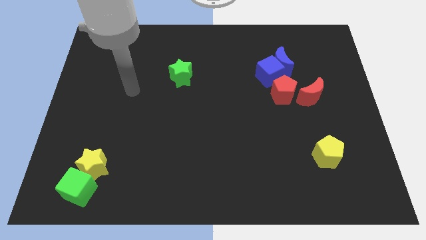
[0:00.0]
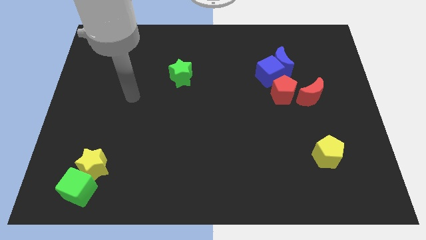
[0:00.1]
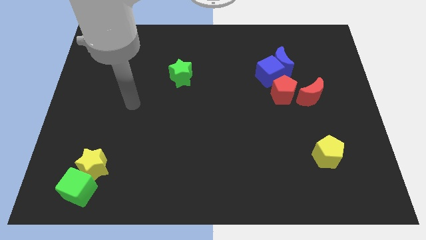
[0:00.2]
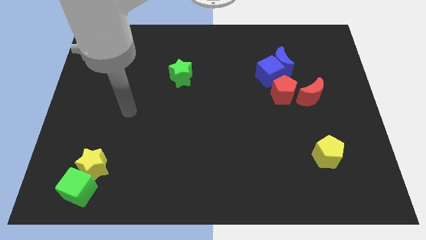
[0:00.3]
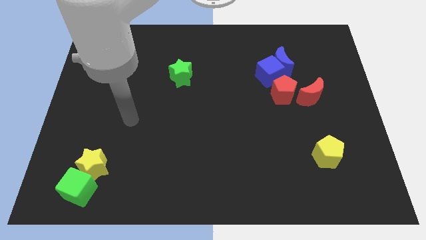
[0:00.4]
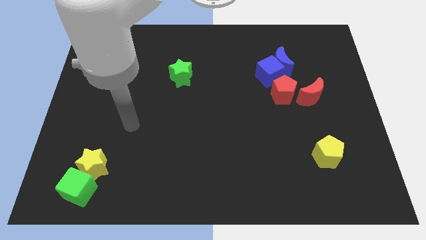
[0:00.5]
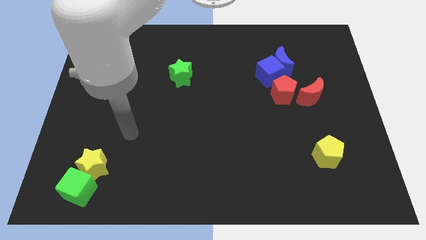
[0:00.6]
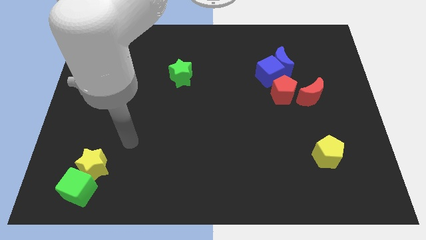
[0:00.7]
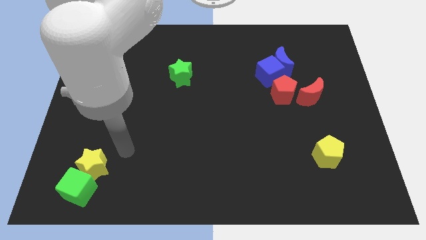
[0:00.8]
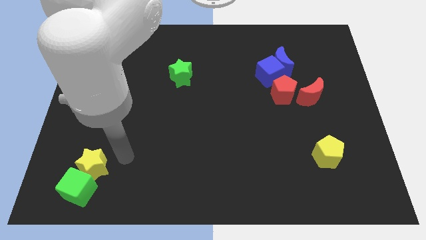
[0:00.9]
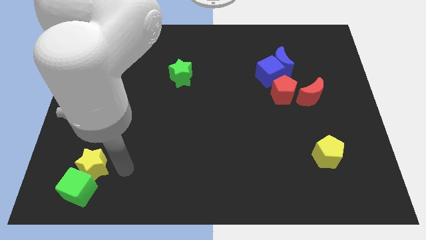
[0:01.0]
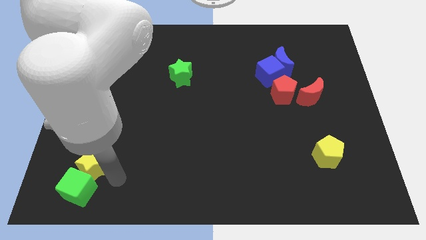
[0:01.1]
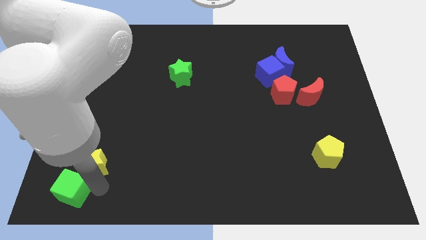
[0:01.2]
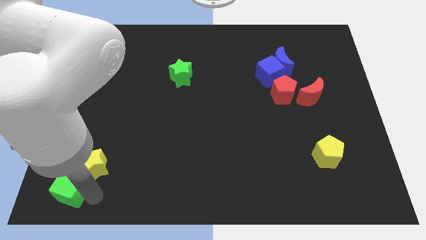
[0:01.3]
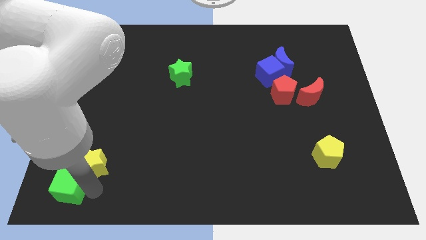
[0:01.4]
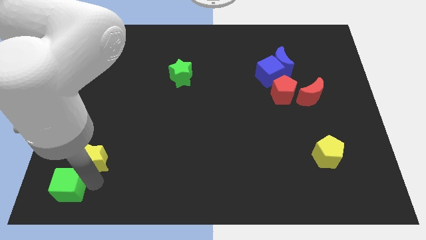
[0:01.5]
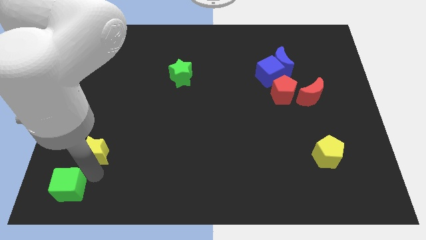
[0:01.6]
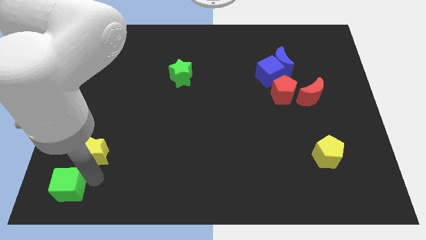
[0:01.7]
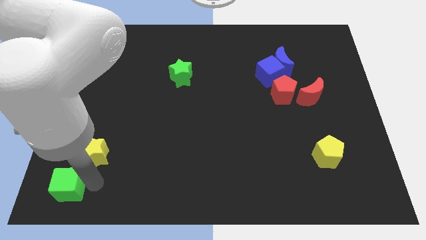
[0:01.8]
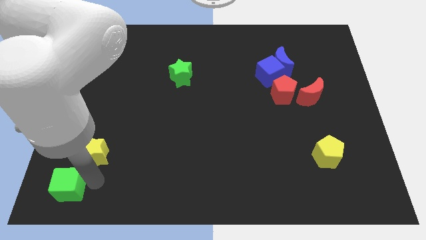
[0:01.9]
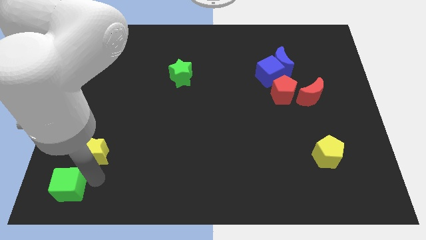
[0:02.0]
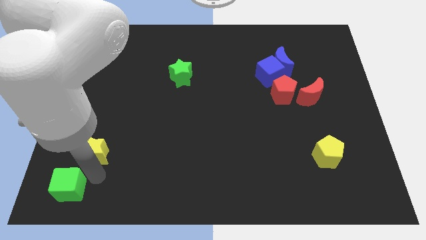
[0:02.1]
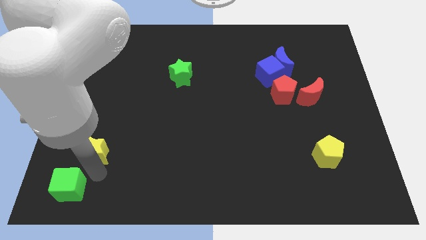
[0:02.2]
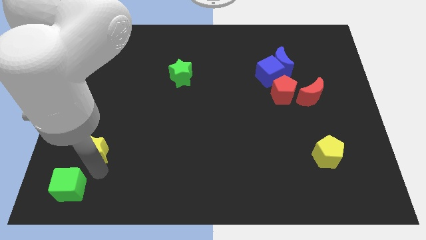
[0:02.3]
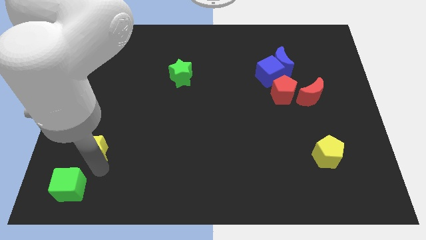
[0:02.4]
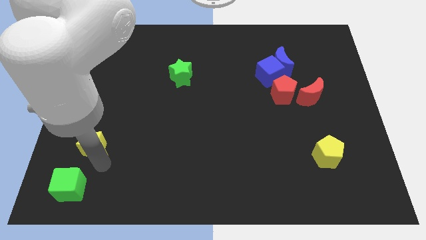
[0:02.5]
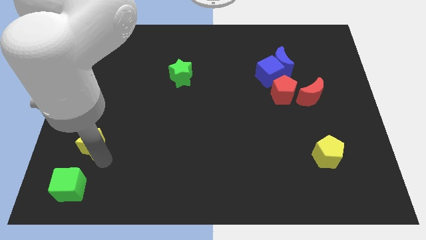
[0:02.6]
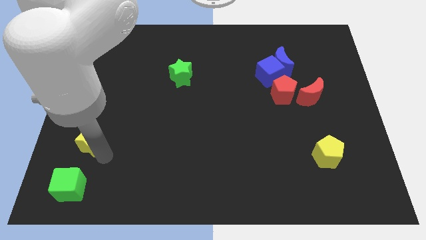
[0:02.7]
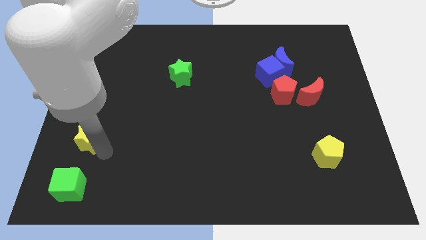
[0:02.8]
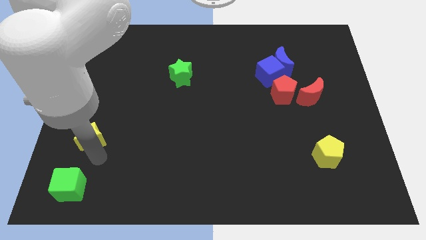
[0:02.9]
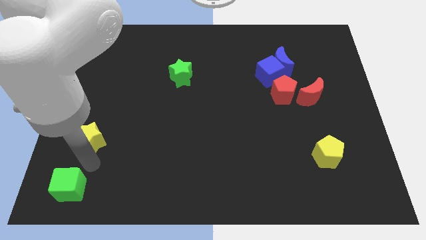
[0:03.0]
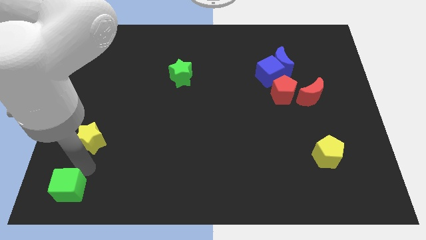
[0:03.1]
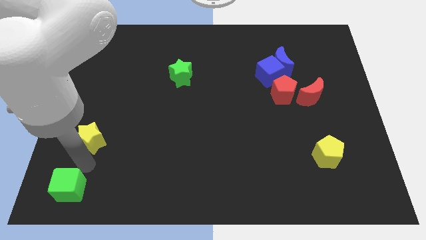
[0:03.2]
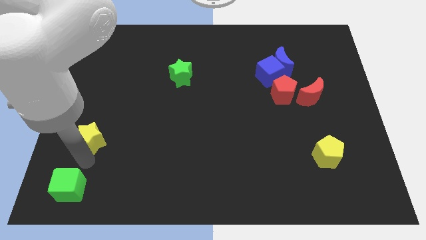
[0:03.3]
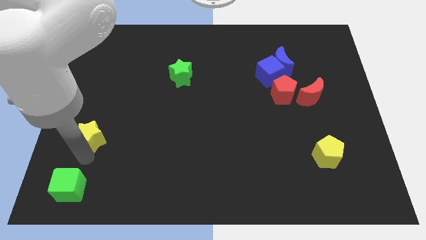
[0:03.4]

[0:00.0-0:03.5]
slightly slide the yellow star upwards

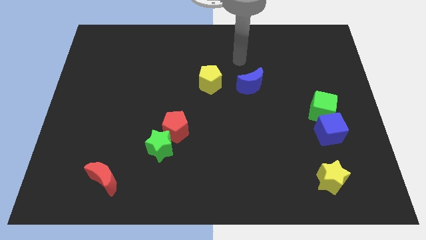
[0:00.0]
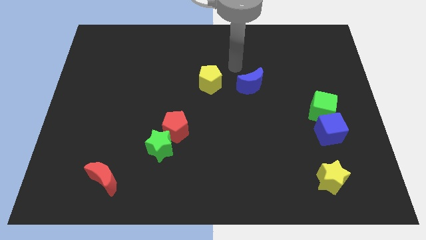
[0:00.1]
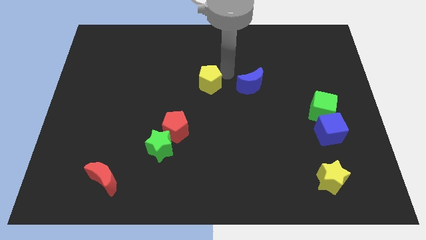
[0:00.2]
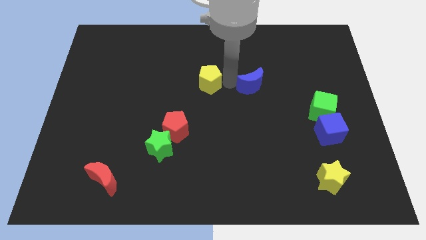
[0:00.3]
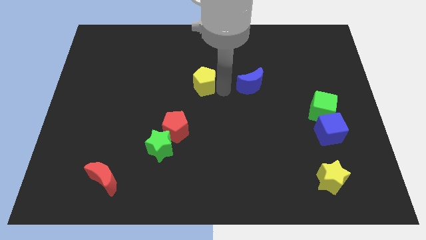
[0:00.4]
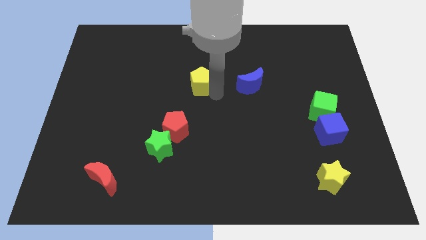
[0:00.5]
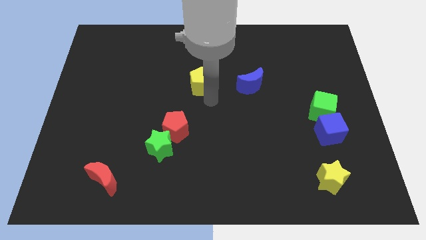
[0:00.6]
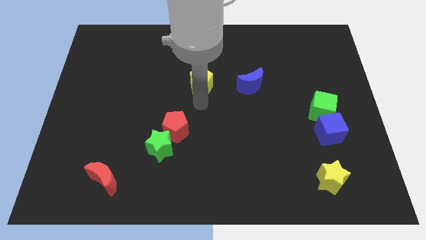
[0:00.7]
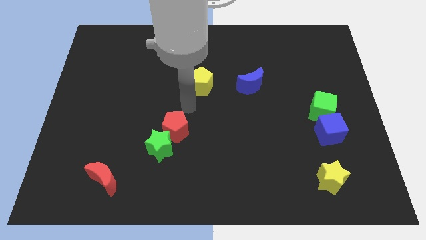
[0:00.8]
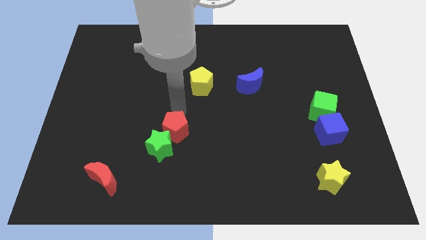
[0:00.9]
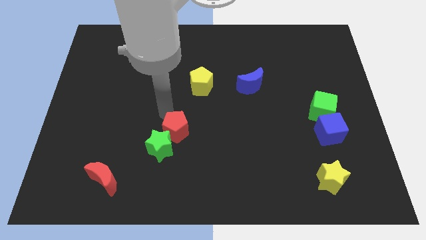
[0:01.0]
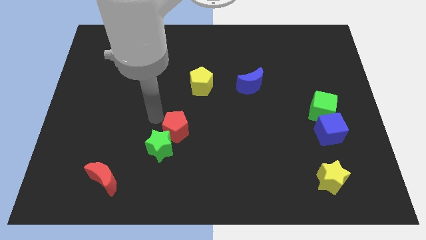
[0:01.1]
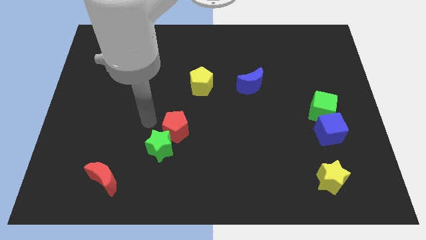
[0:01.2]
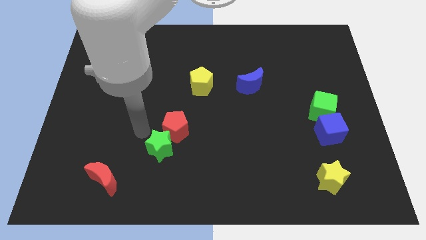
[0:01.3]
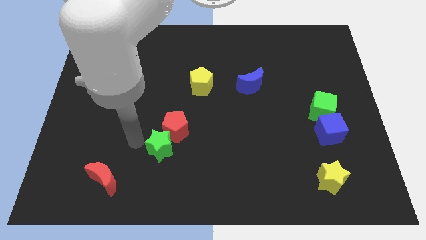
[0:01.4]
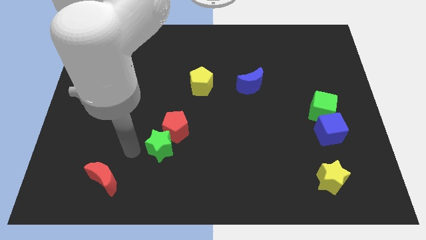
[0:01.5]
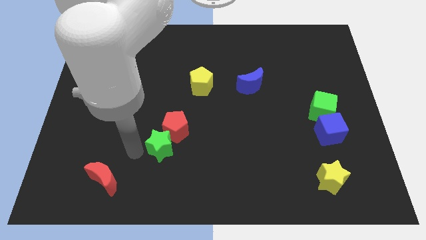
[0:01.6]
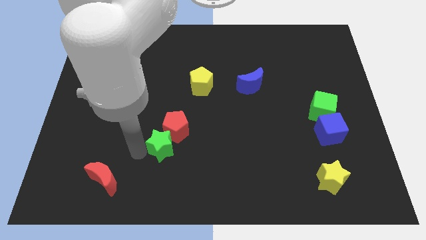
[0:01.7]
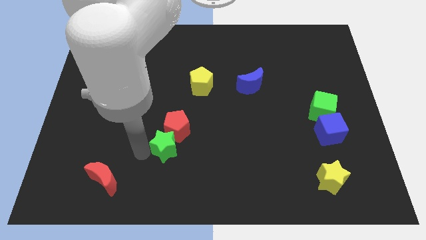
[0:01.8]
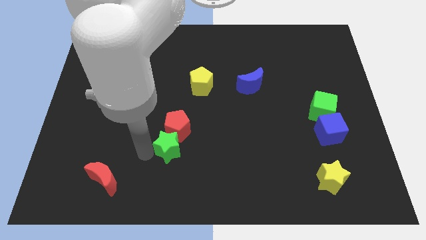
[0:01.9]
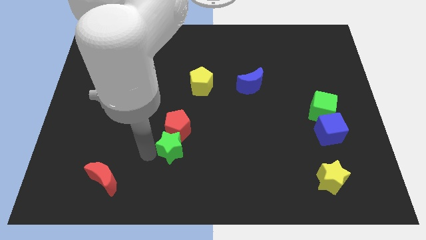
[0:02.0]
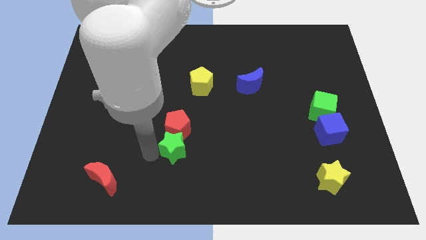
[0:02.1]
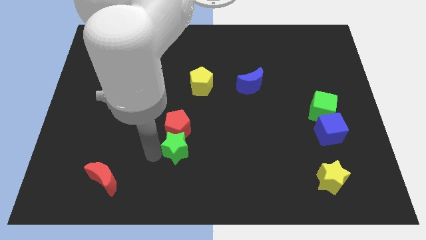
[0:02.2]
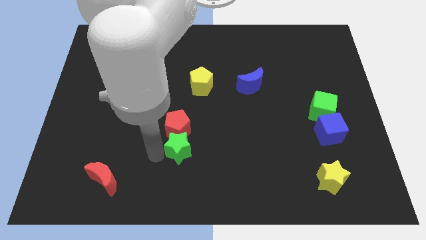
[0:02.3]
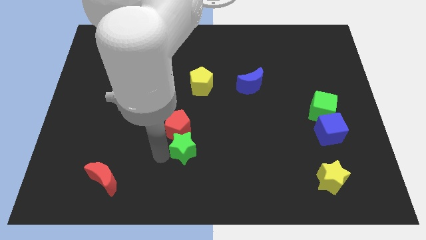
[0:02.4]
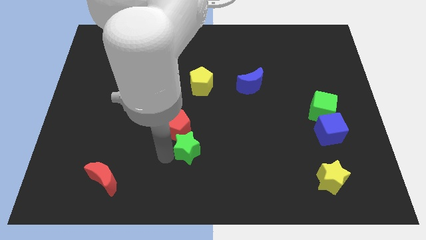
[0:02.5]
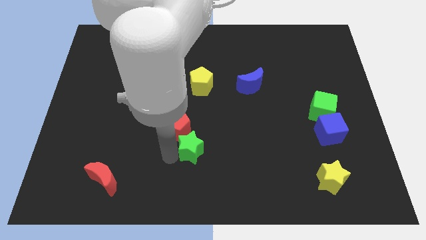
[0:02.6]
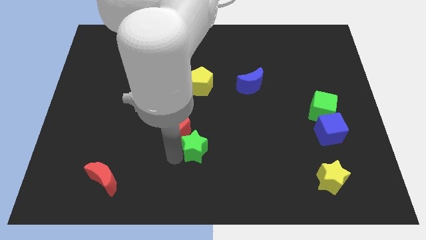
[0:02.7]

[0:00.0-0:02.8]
move the green star a little right

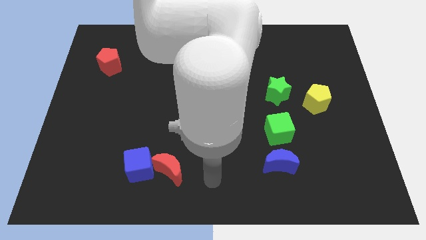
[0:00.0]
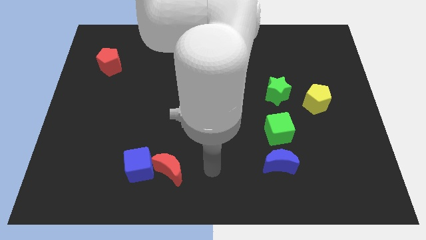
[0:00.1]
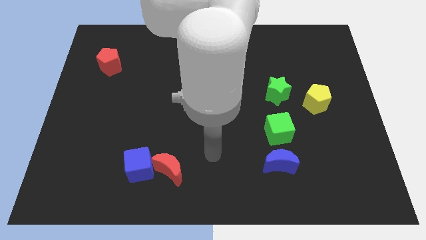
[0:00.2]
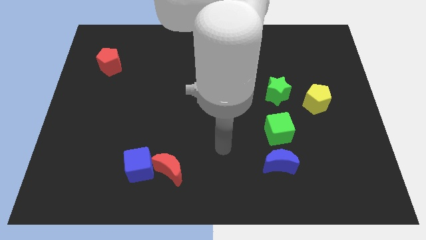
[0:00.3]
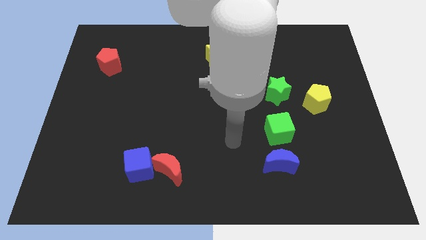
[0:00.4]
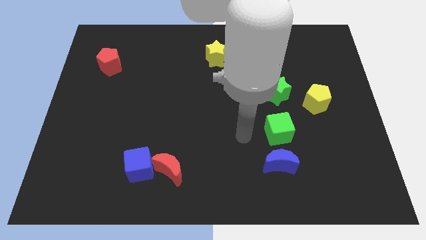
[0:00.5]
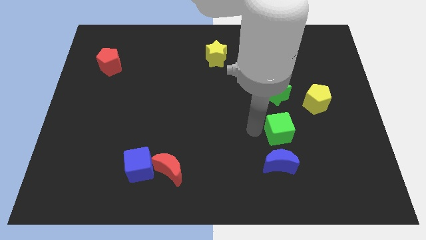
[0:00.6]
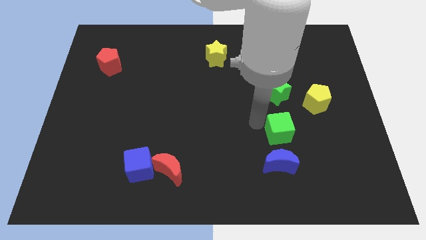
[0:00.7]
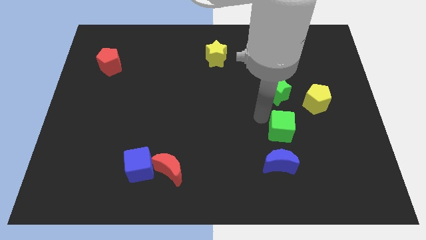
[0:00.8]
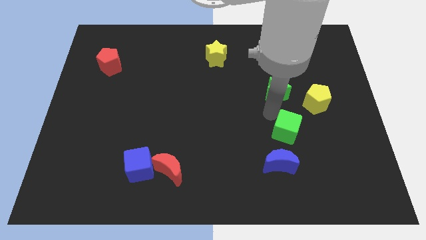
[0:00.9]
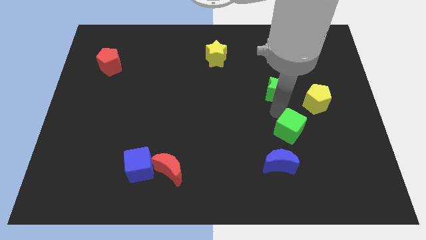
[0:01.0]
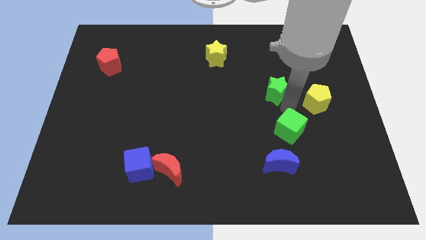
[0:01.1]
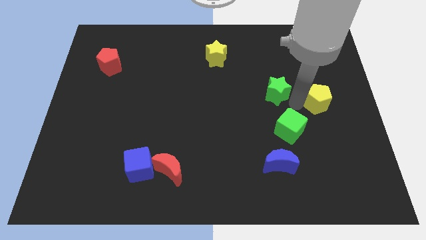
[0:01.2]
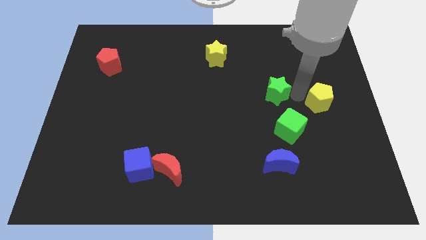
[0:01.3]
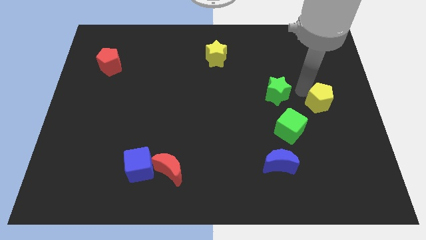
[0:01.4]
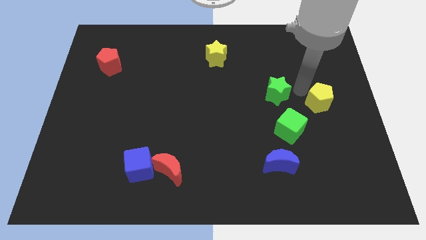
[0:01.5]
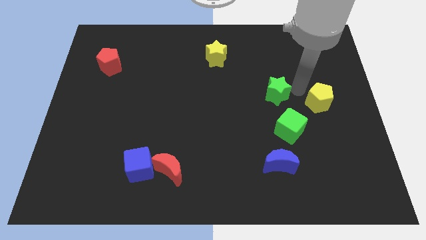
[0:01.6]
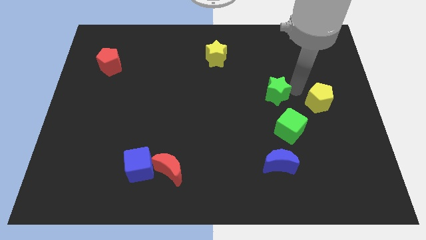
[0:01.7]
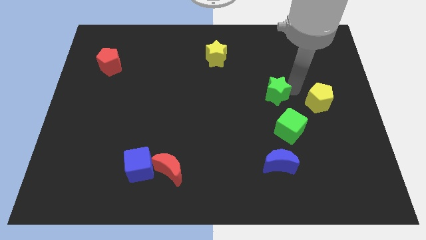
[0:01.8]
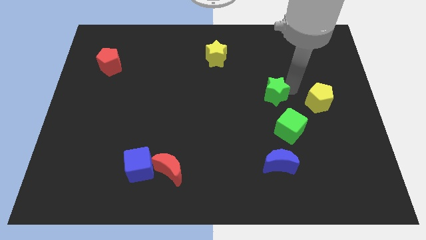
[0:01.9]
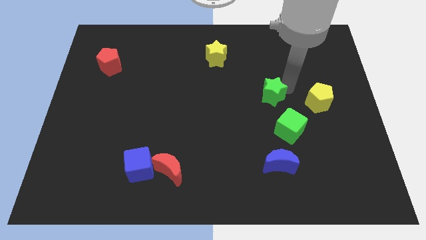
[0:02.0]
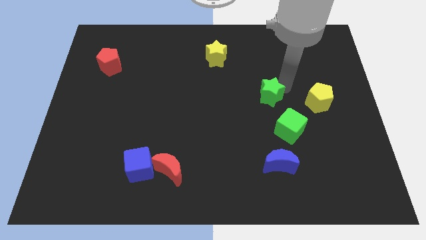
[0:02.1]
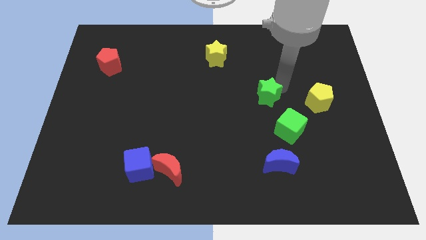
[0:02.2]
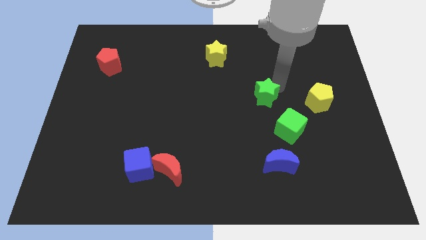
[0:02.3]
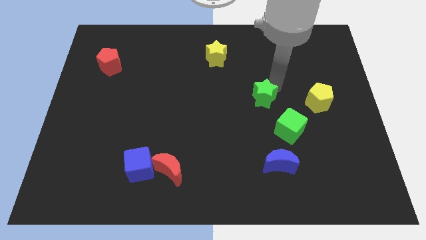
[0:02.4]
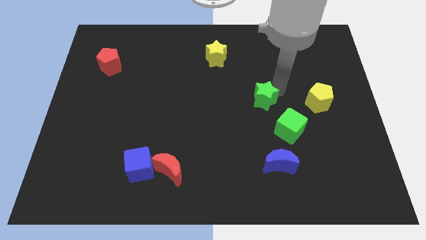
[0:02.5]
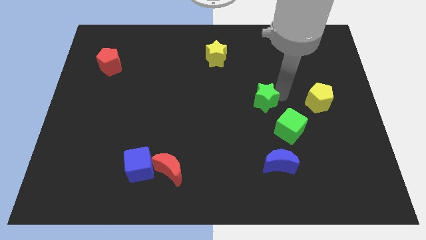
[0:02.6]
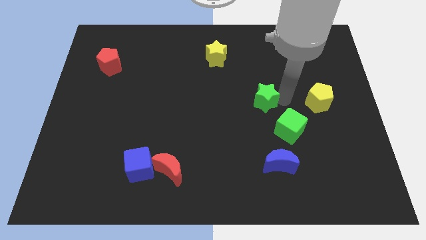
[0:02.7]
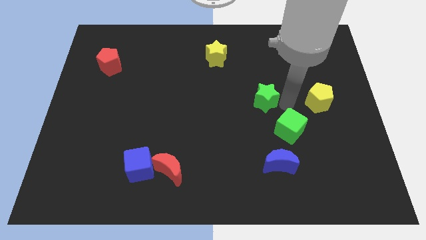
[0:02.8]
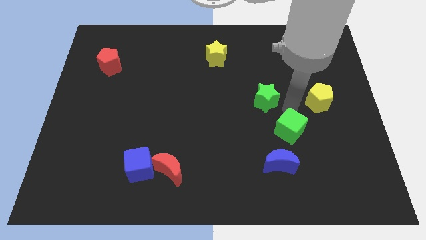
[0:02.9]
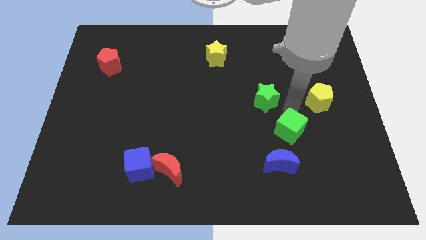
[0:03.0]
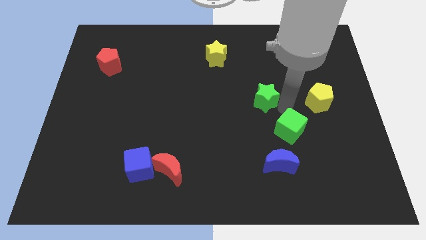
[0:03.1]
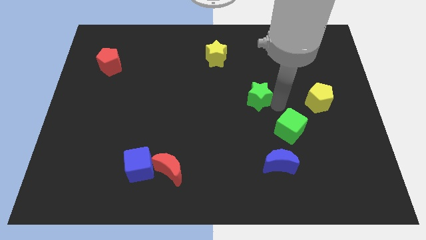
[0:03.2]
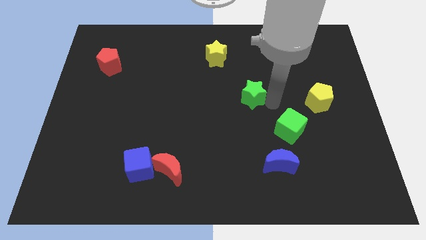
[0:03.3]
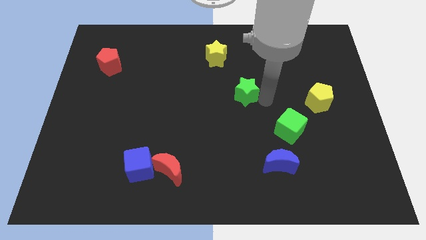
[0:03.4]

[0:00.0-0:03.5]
push the green star a little to the left
